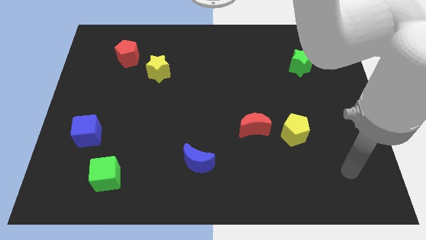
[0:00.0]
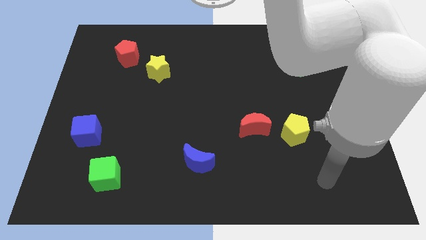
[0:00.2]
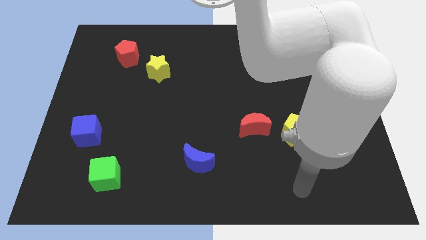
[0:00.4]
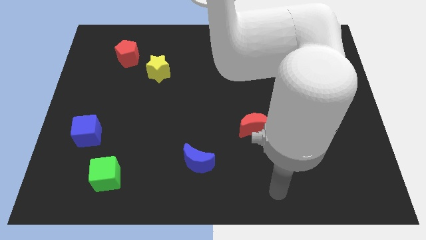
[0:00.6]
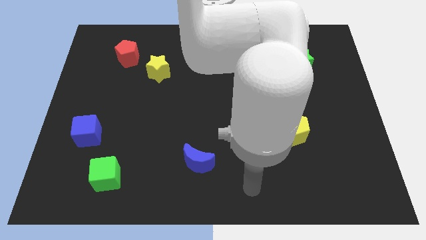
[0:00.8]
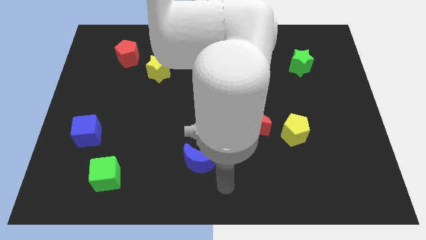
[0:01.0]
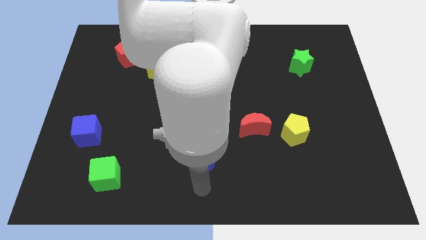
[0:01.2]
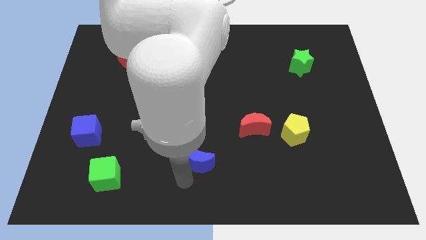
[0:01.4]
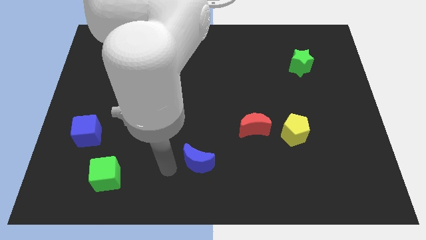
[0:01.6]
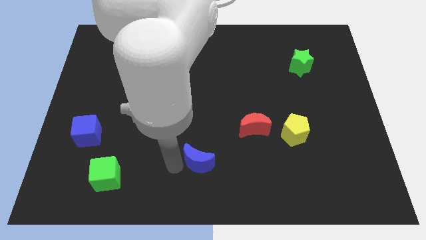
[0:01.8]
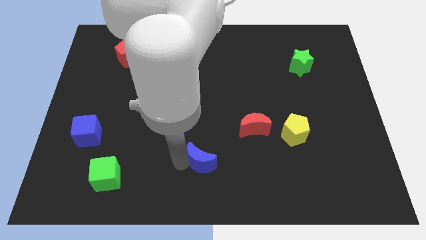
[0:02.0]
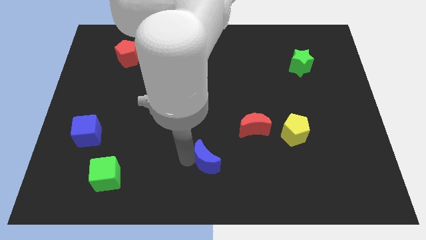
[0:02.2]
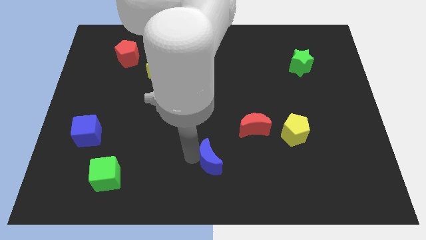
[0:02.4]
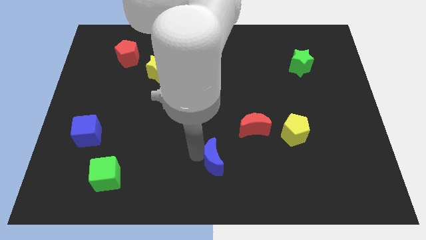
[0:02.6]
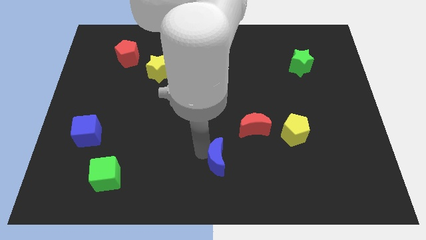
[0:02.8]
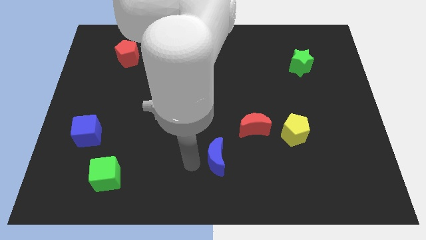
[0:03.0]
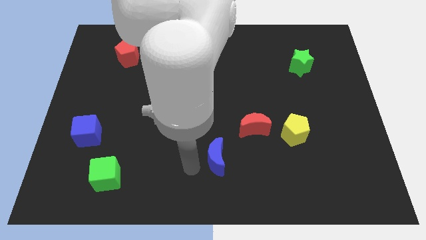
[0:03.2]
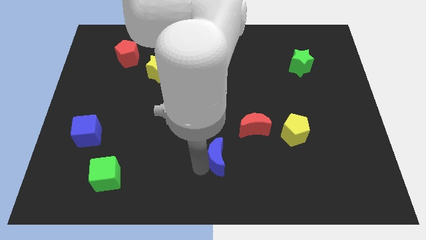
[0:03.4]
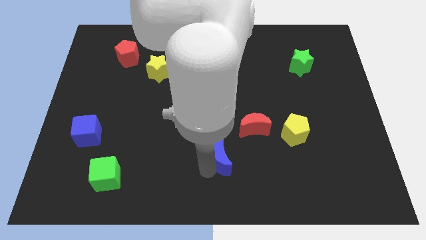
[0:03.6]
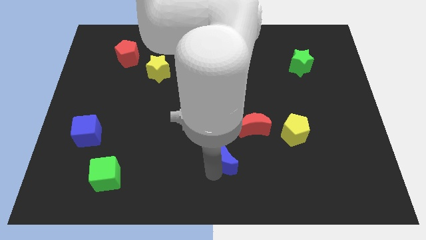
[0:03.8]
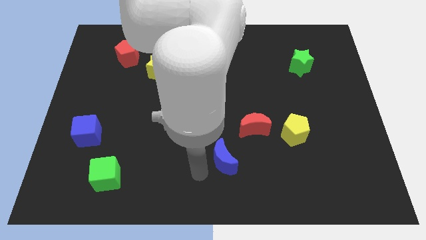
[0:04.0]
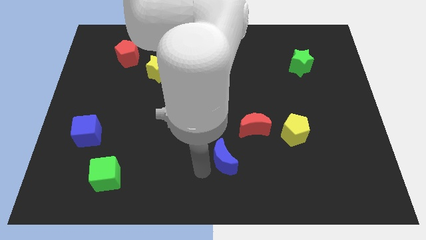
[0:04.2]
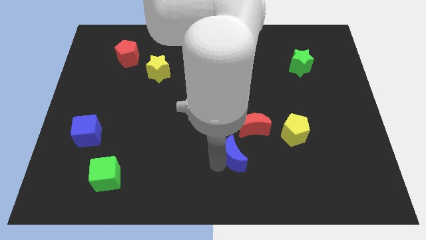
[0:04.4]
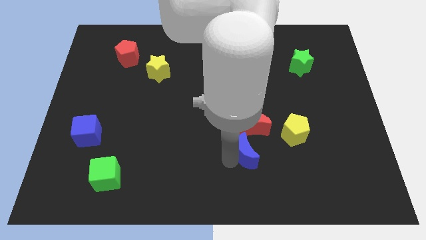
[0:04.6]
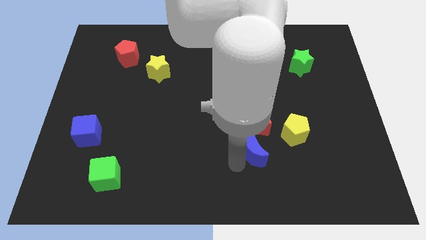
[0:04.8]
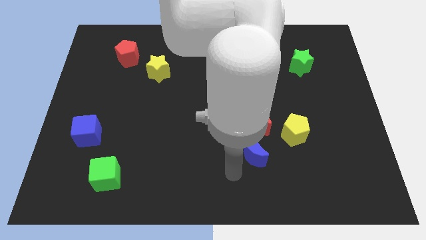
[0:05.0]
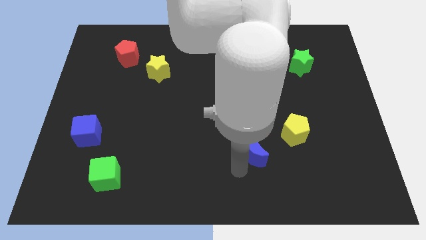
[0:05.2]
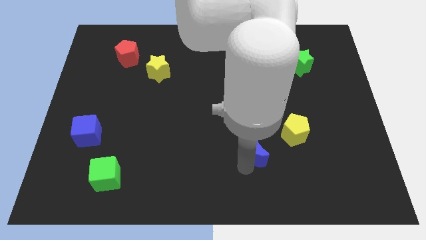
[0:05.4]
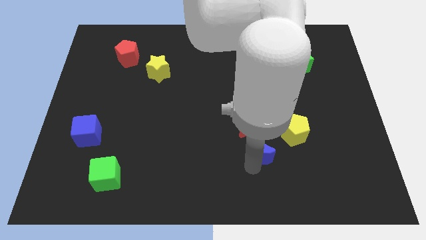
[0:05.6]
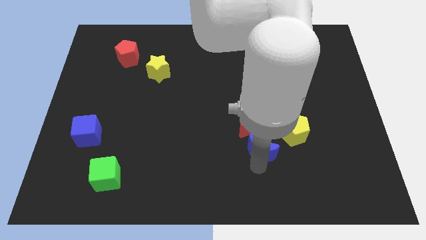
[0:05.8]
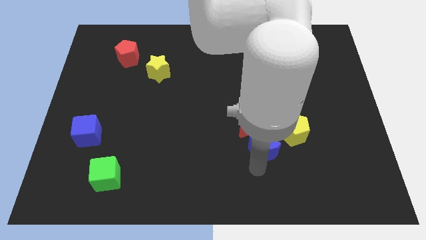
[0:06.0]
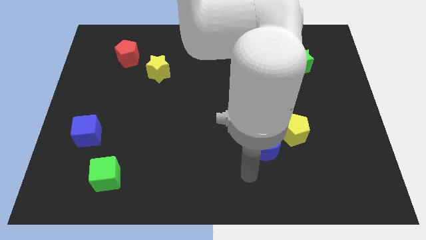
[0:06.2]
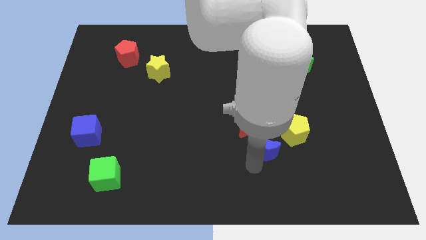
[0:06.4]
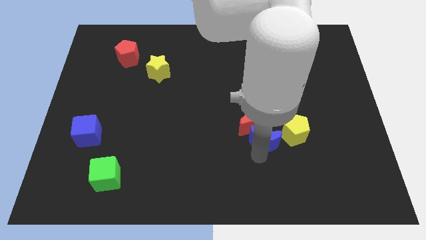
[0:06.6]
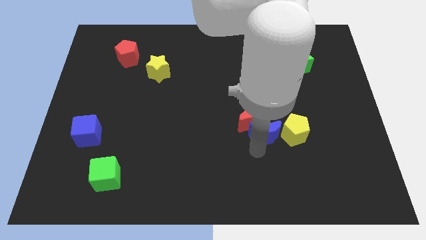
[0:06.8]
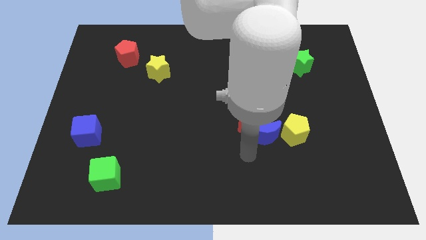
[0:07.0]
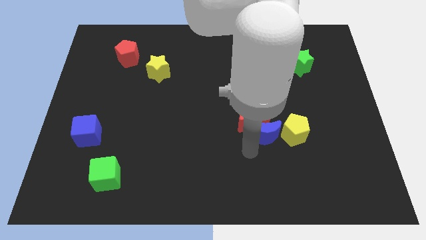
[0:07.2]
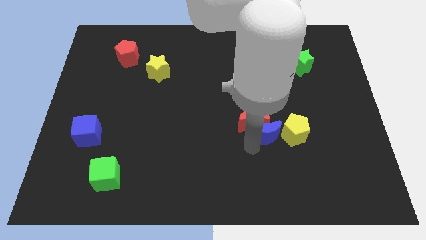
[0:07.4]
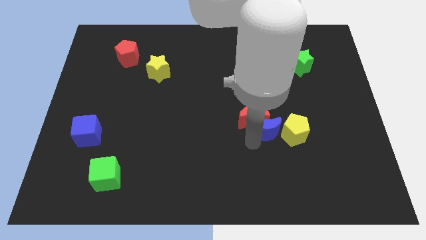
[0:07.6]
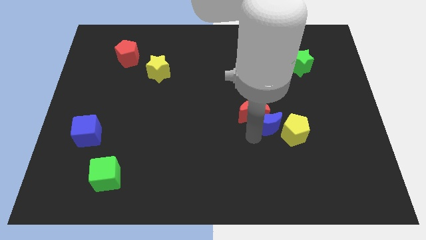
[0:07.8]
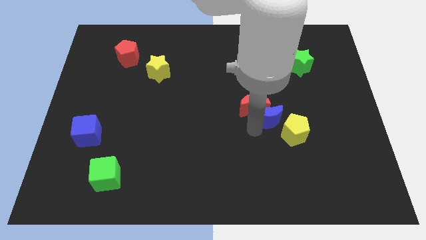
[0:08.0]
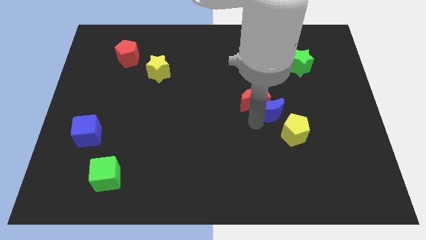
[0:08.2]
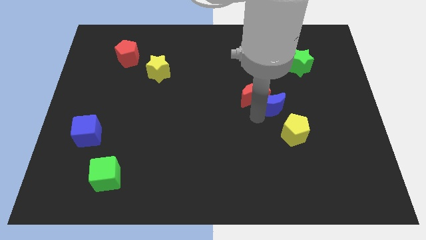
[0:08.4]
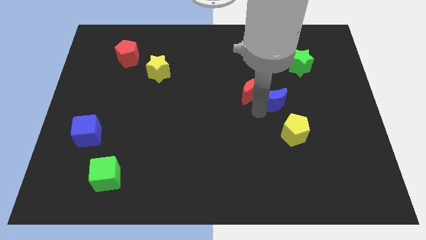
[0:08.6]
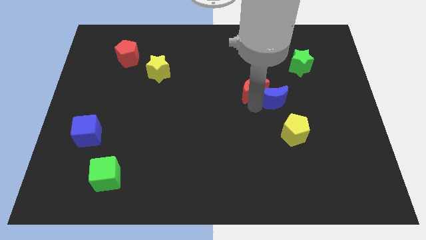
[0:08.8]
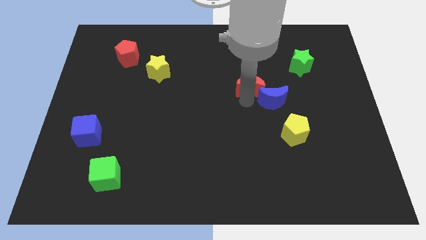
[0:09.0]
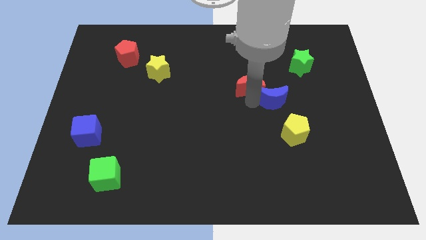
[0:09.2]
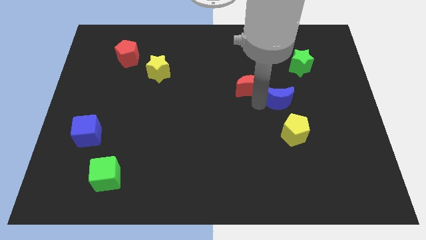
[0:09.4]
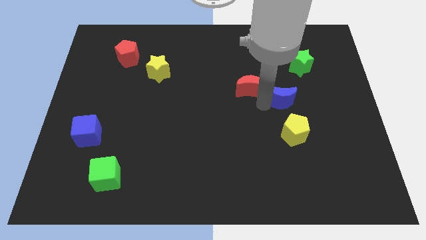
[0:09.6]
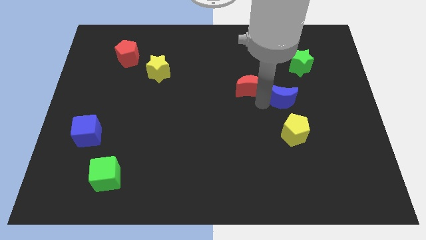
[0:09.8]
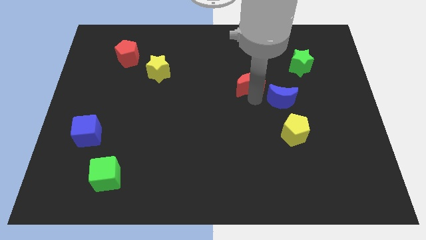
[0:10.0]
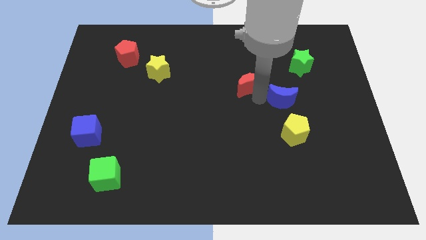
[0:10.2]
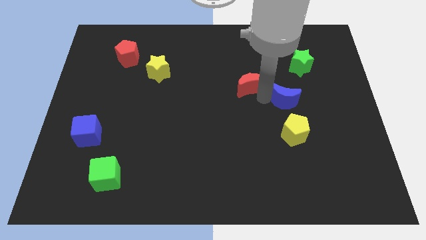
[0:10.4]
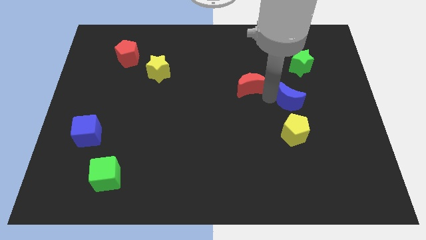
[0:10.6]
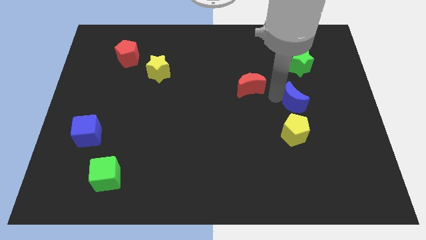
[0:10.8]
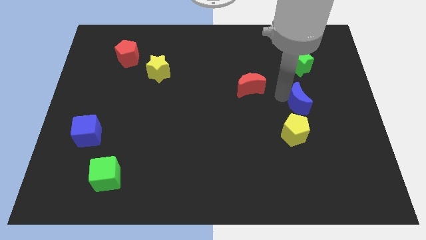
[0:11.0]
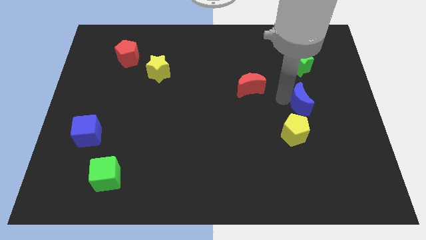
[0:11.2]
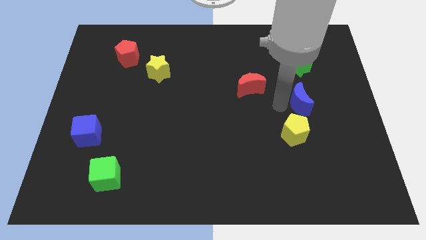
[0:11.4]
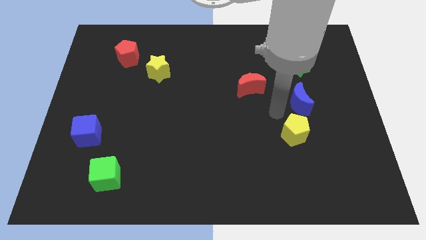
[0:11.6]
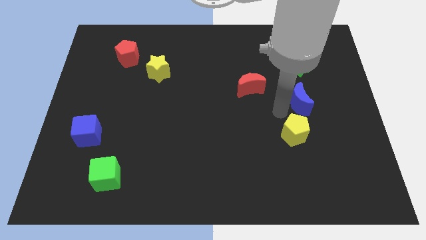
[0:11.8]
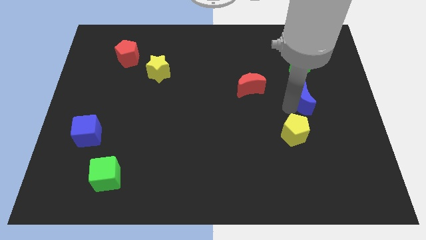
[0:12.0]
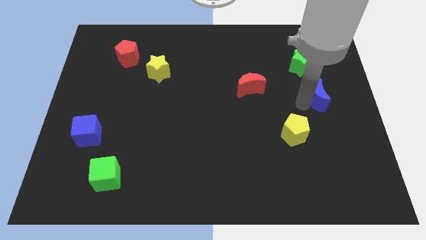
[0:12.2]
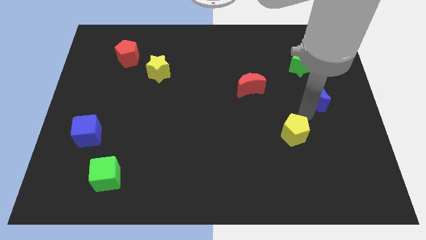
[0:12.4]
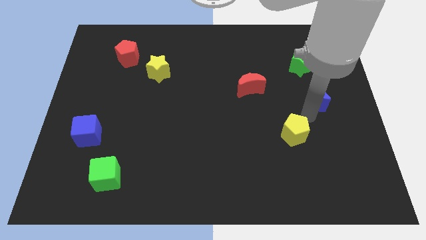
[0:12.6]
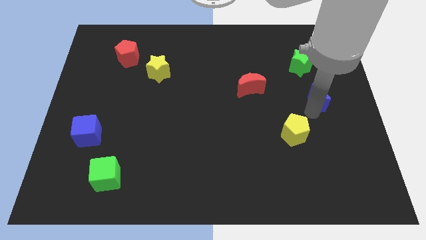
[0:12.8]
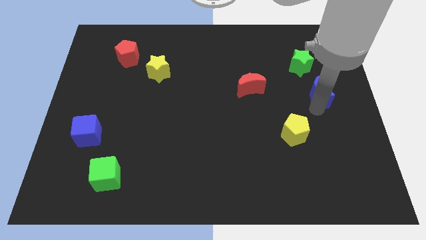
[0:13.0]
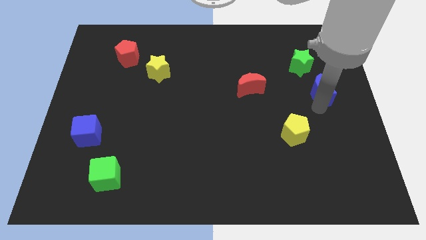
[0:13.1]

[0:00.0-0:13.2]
push the blue moon to the bottom right side of the green star
